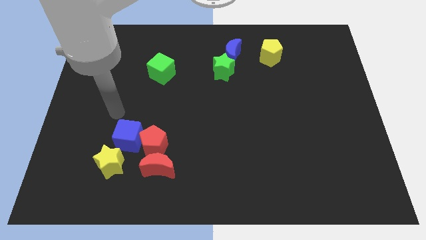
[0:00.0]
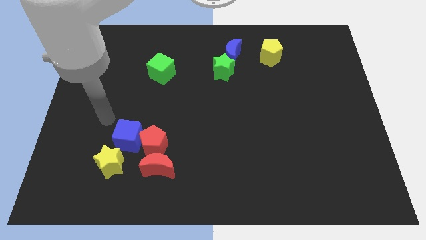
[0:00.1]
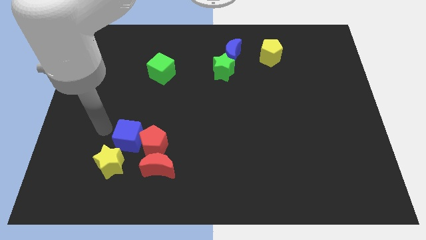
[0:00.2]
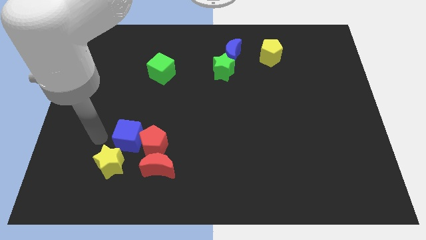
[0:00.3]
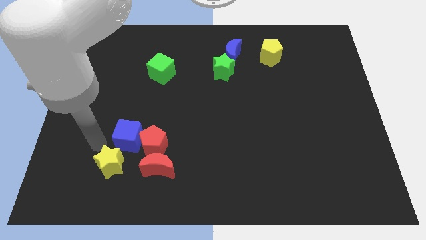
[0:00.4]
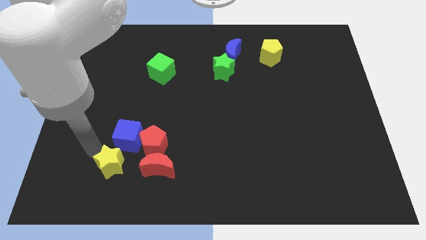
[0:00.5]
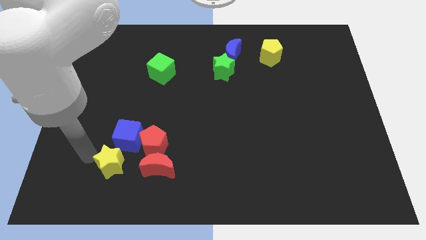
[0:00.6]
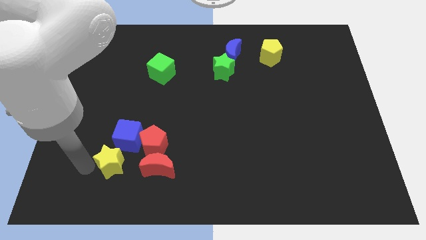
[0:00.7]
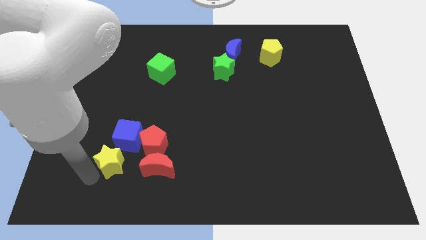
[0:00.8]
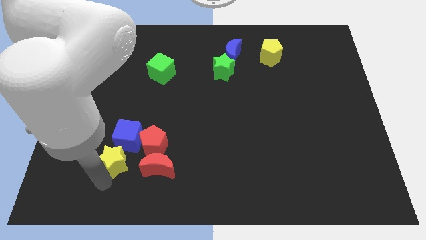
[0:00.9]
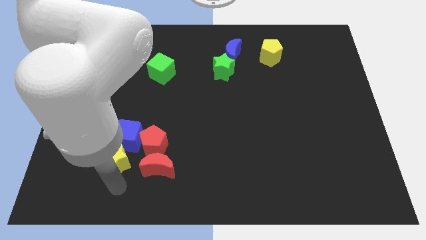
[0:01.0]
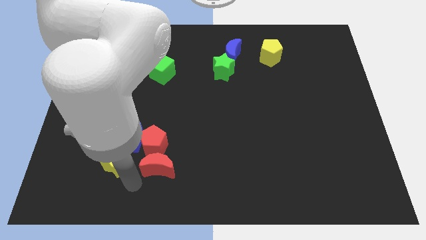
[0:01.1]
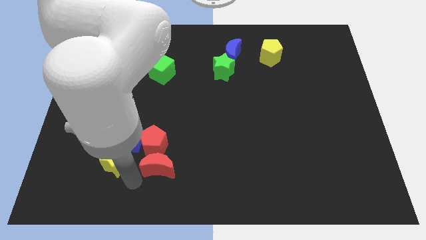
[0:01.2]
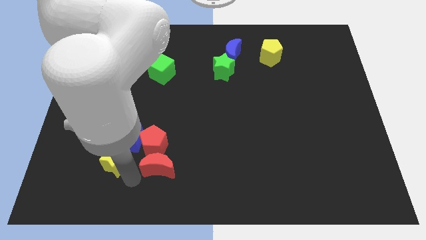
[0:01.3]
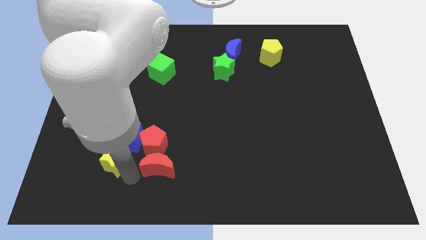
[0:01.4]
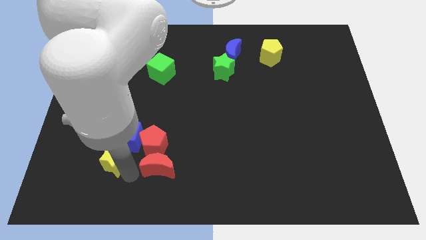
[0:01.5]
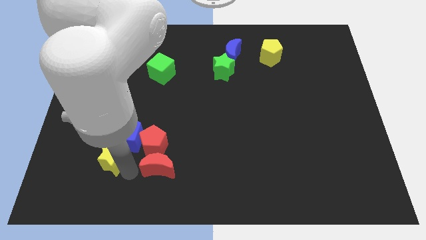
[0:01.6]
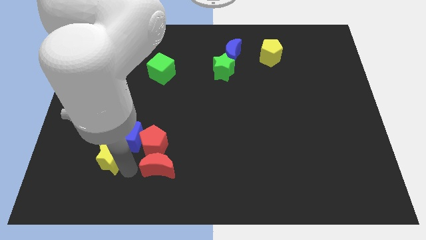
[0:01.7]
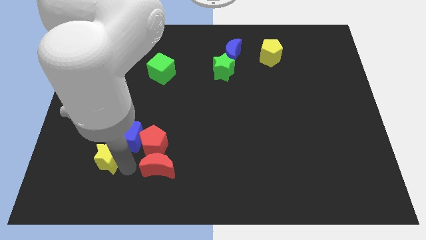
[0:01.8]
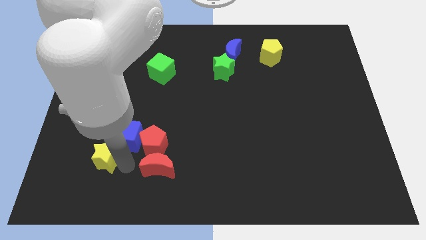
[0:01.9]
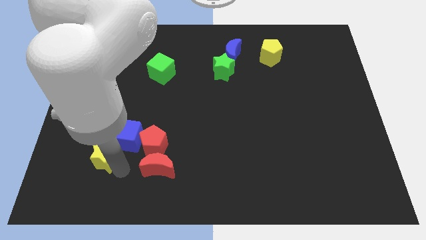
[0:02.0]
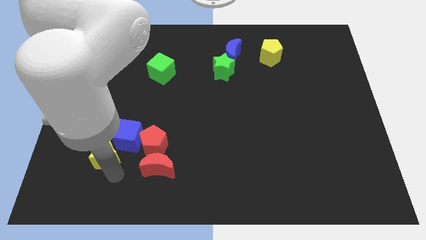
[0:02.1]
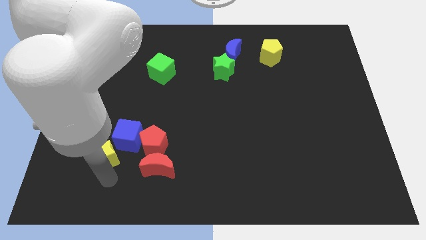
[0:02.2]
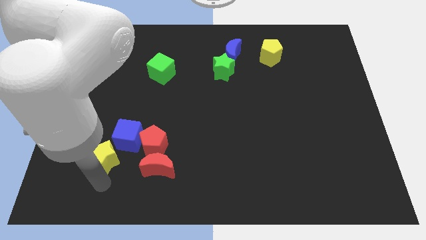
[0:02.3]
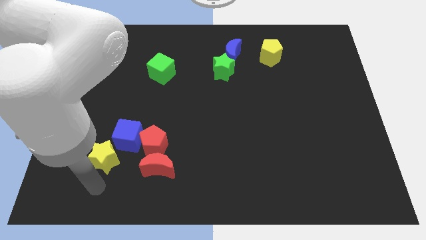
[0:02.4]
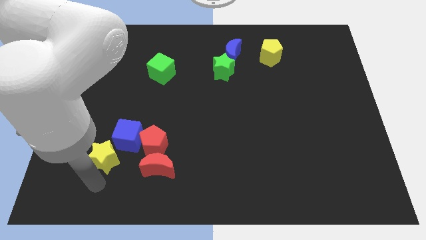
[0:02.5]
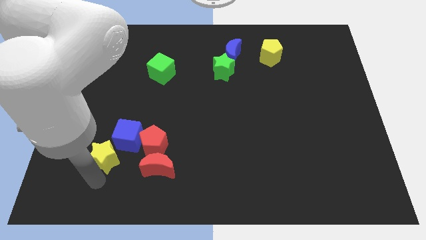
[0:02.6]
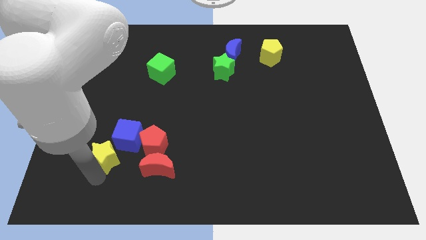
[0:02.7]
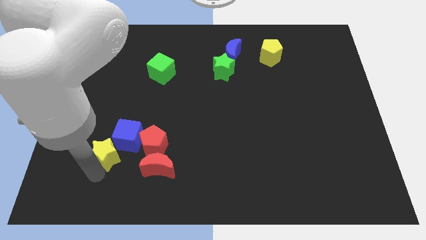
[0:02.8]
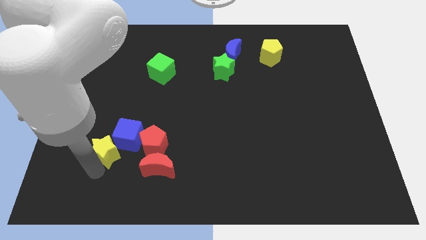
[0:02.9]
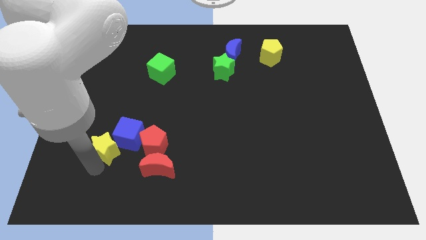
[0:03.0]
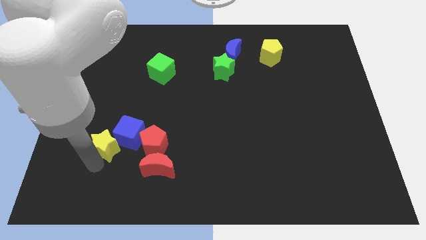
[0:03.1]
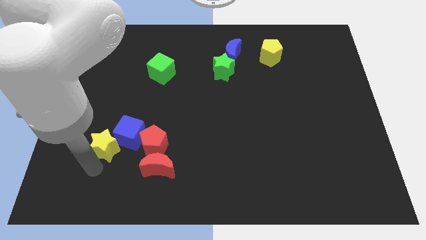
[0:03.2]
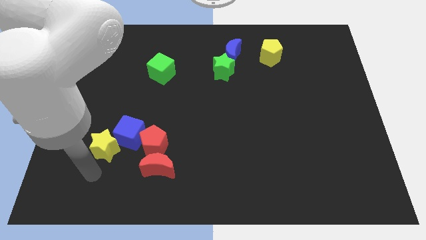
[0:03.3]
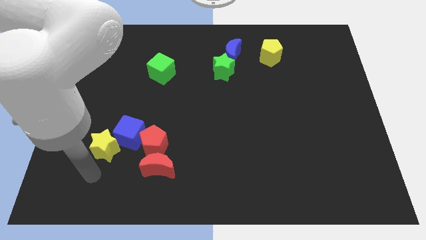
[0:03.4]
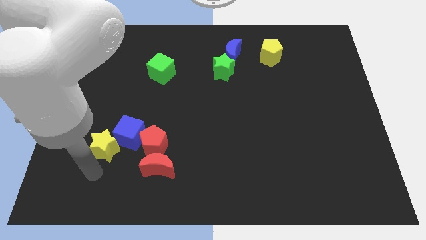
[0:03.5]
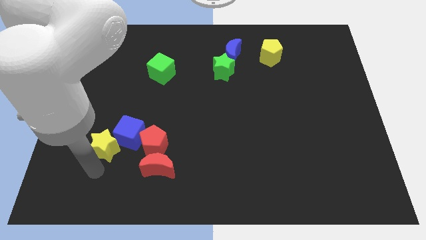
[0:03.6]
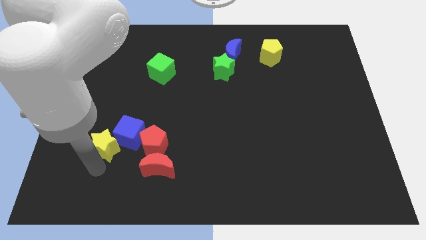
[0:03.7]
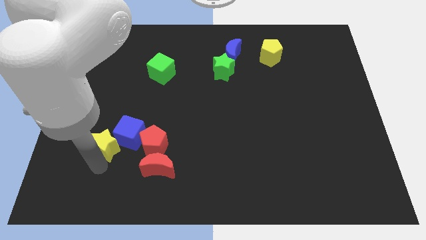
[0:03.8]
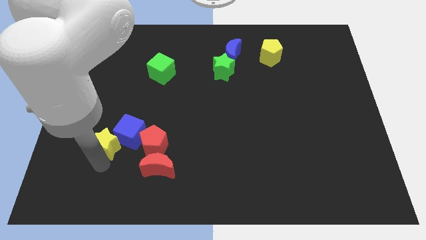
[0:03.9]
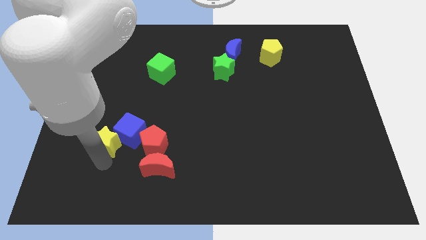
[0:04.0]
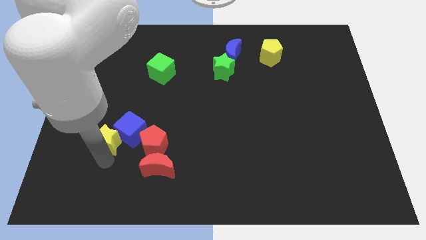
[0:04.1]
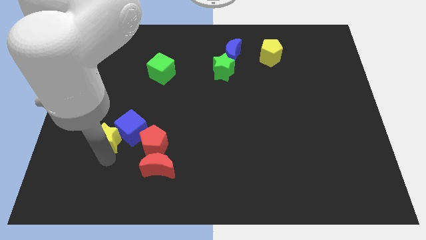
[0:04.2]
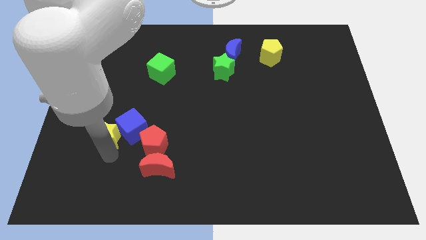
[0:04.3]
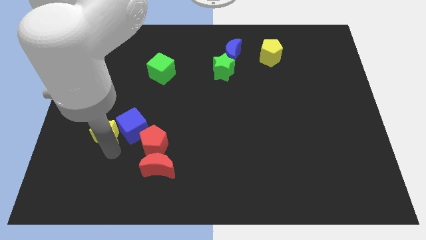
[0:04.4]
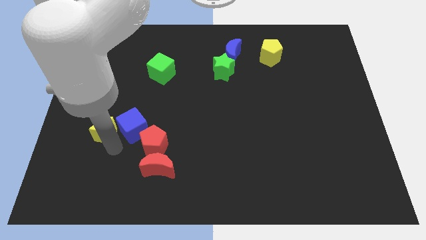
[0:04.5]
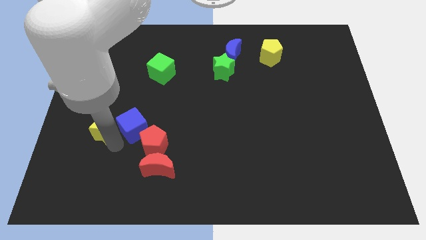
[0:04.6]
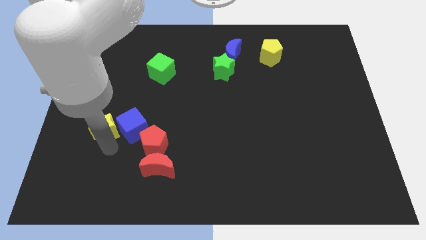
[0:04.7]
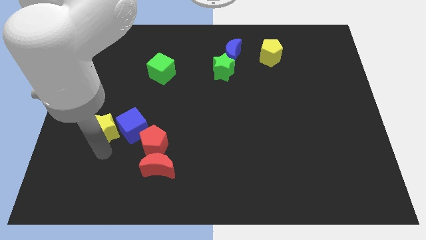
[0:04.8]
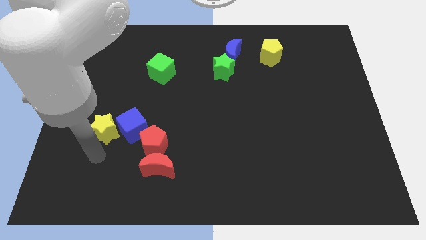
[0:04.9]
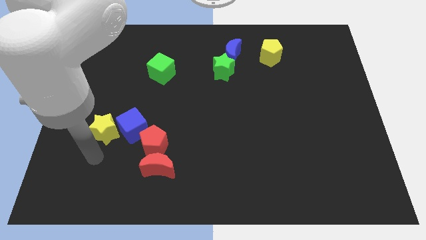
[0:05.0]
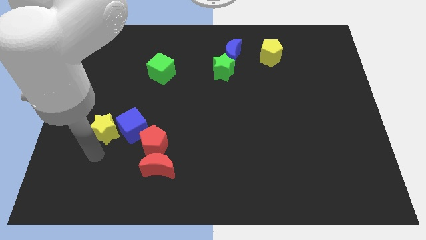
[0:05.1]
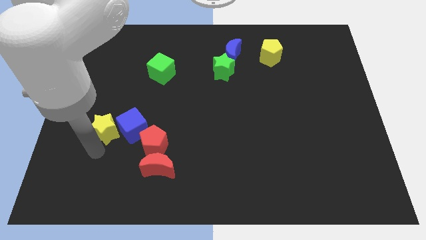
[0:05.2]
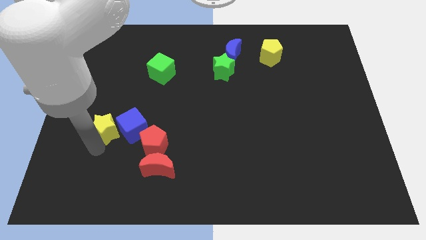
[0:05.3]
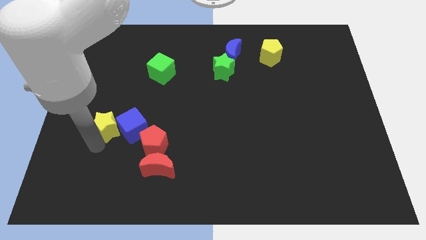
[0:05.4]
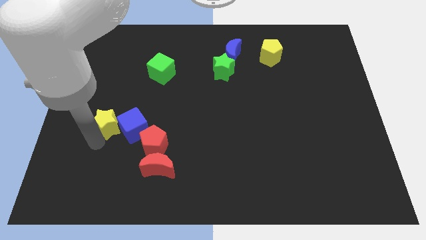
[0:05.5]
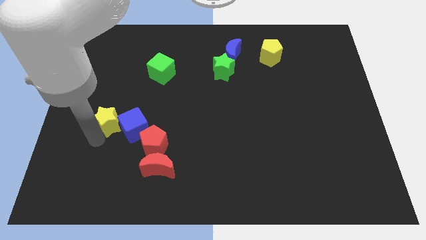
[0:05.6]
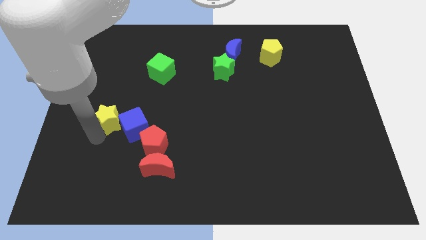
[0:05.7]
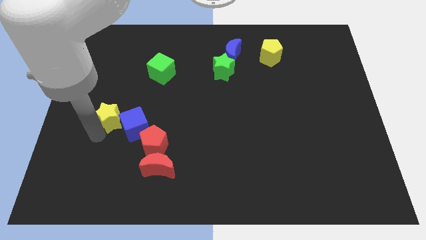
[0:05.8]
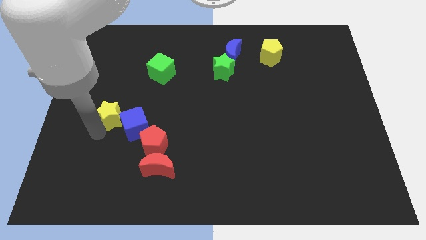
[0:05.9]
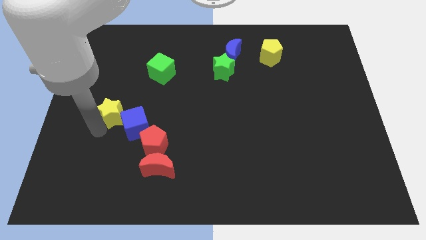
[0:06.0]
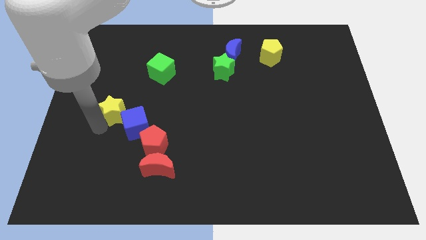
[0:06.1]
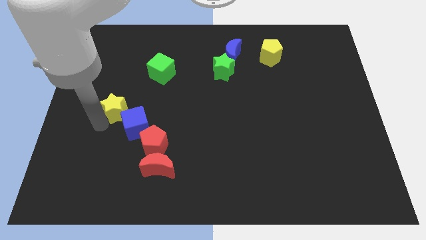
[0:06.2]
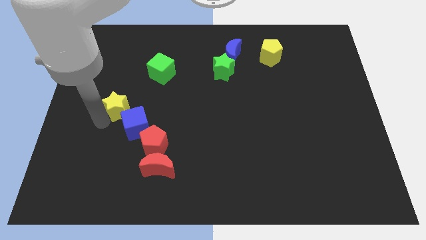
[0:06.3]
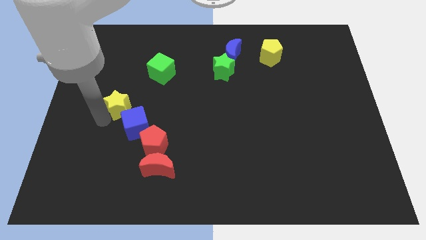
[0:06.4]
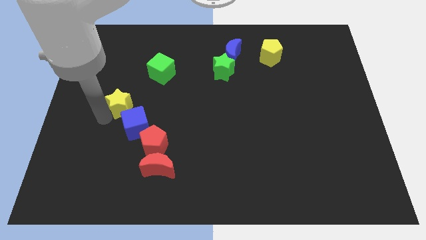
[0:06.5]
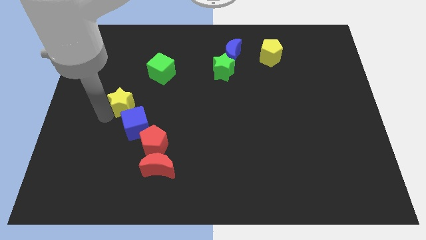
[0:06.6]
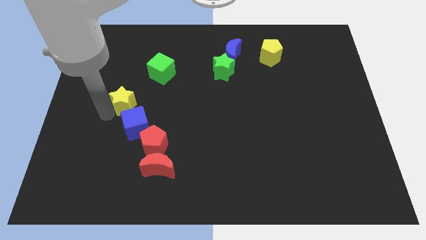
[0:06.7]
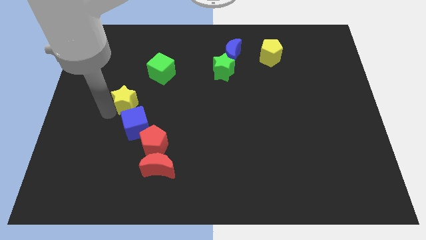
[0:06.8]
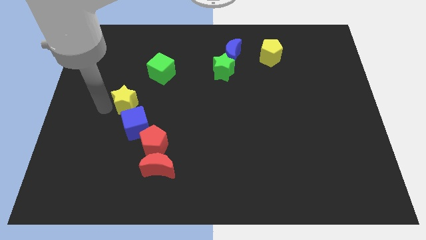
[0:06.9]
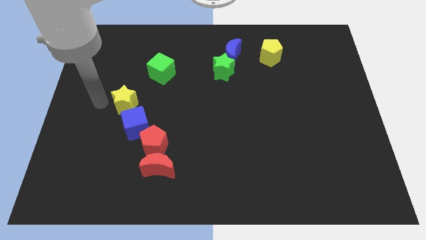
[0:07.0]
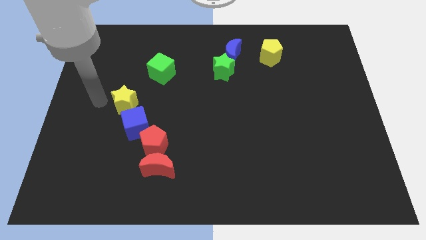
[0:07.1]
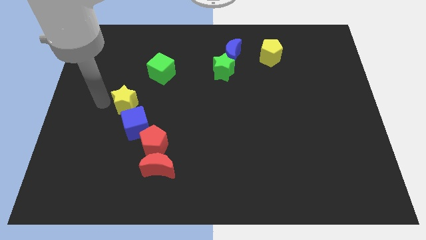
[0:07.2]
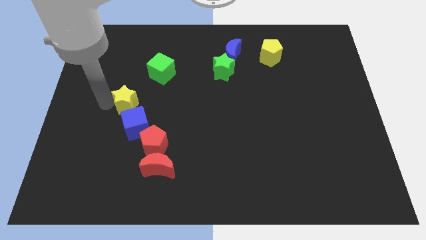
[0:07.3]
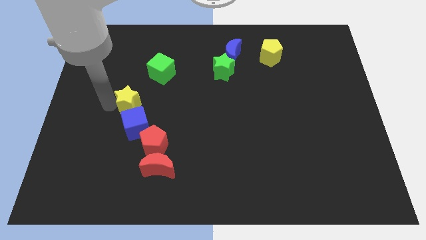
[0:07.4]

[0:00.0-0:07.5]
move the yellow star a bit upwards and to the right

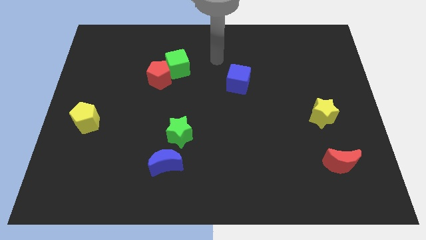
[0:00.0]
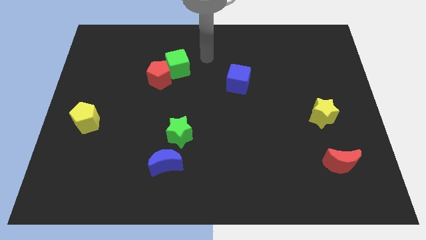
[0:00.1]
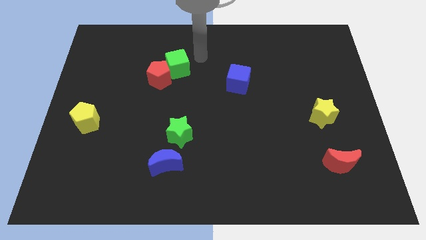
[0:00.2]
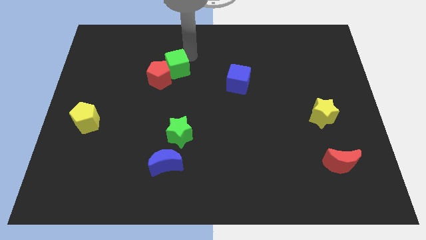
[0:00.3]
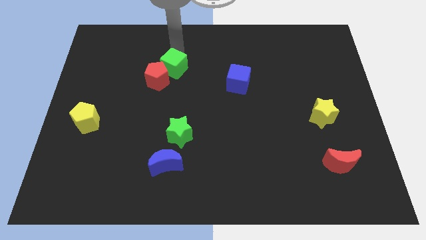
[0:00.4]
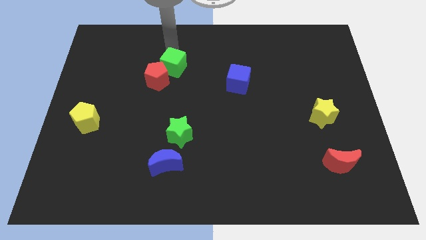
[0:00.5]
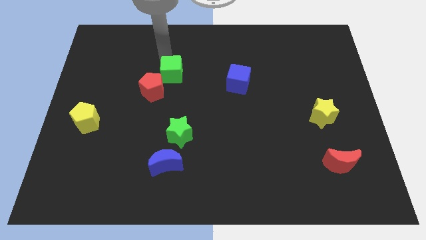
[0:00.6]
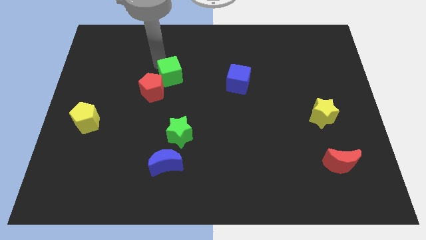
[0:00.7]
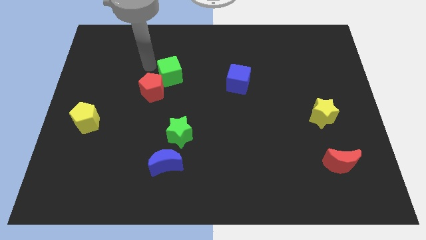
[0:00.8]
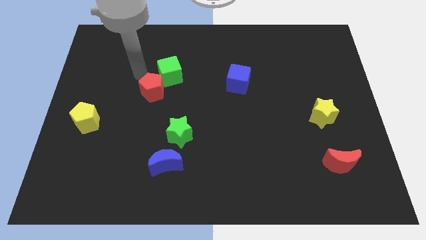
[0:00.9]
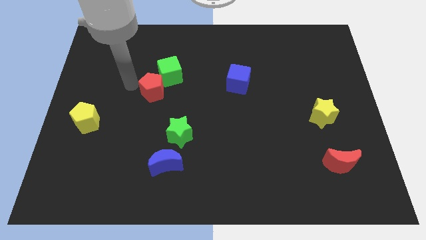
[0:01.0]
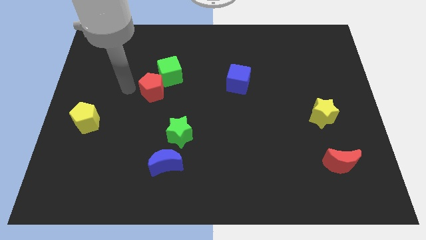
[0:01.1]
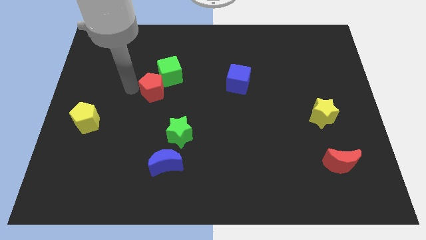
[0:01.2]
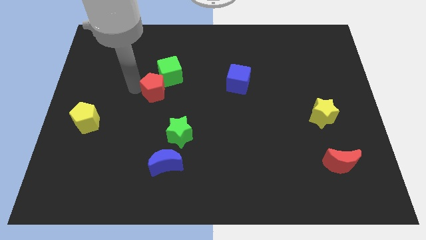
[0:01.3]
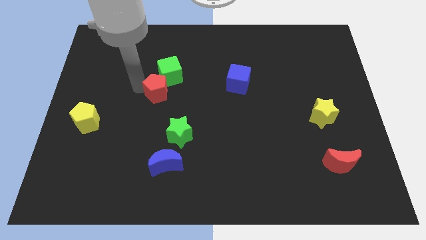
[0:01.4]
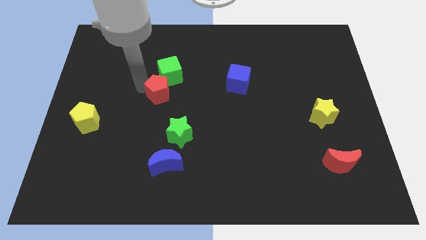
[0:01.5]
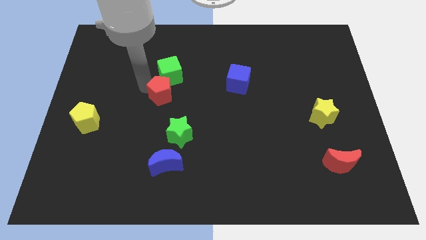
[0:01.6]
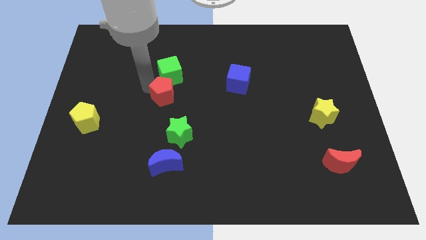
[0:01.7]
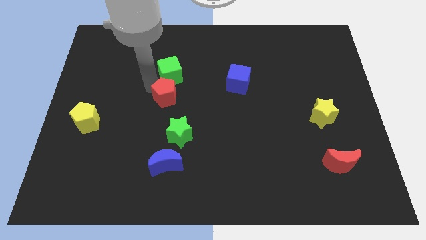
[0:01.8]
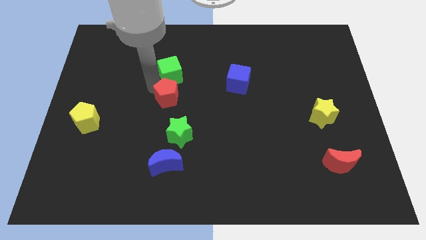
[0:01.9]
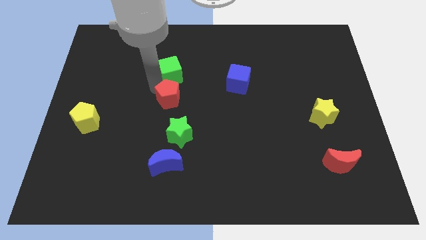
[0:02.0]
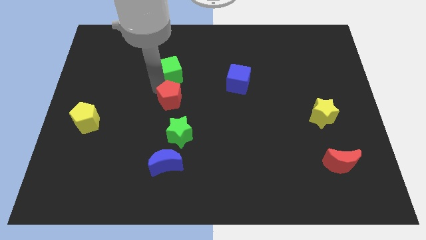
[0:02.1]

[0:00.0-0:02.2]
slightly move the red pentagon down and to the right
